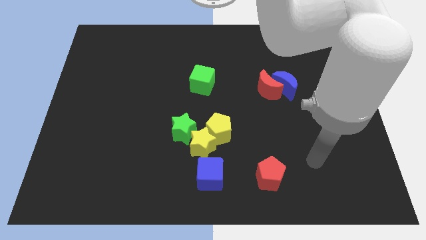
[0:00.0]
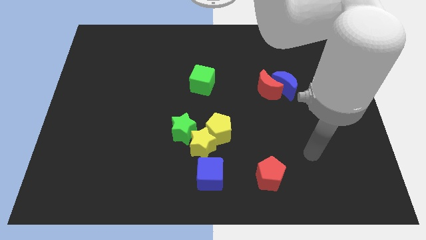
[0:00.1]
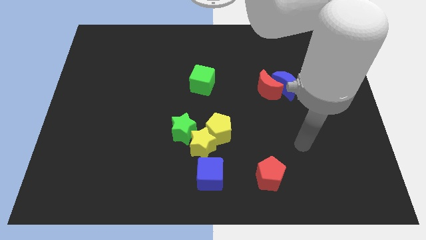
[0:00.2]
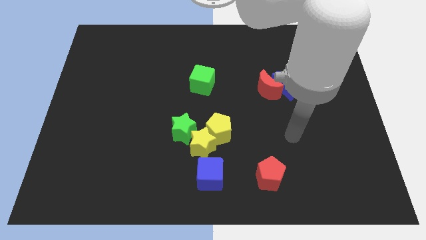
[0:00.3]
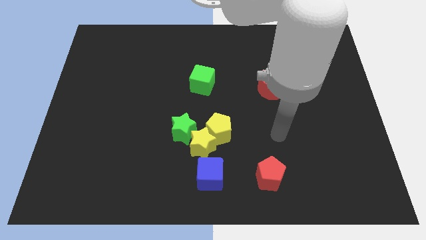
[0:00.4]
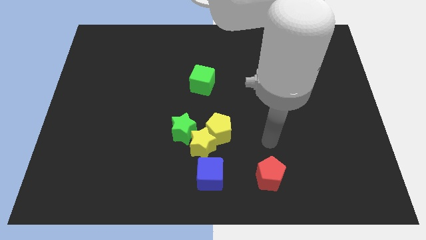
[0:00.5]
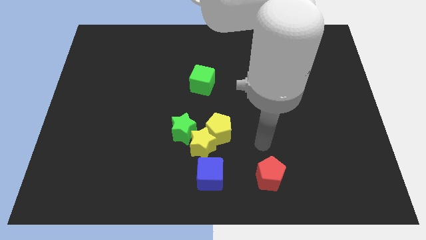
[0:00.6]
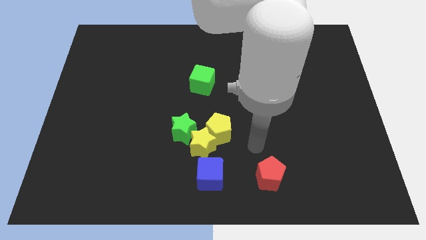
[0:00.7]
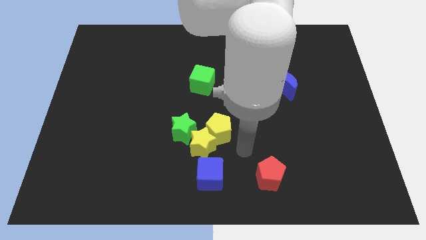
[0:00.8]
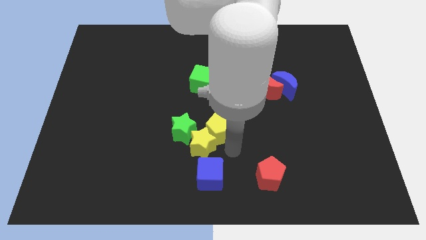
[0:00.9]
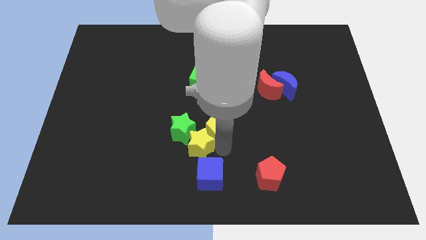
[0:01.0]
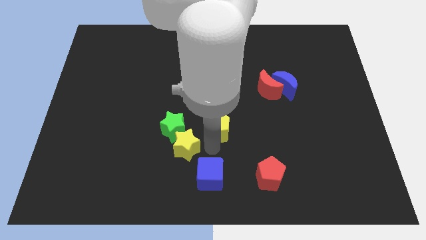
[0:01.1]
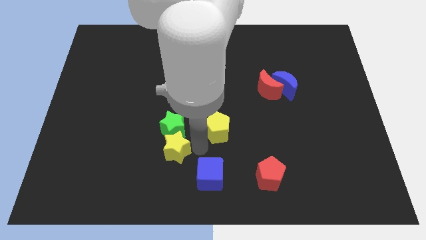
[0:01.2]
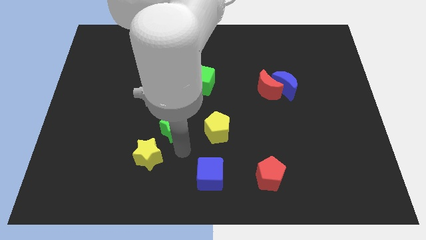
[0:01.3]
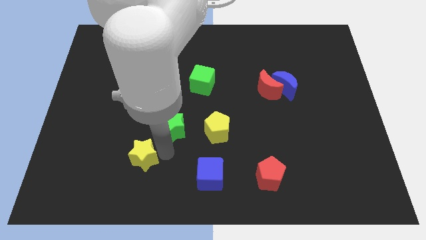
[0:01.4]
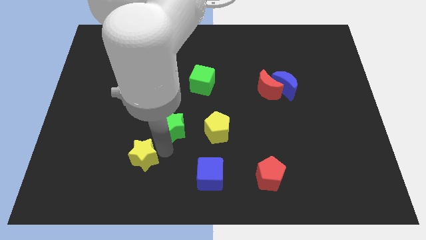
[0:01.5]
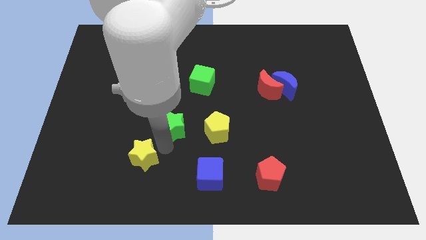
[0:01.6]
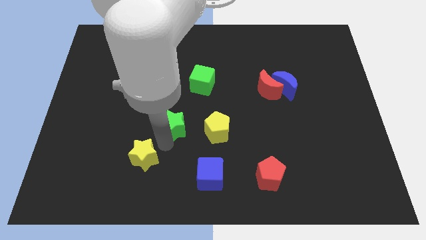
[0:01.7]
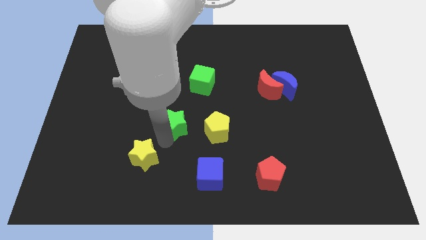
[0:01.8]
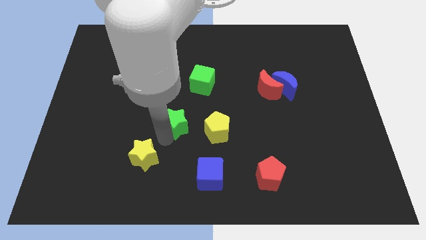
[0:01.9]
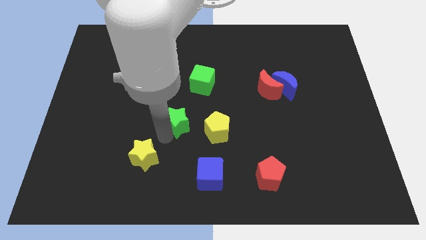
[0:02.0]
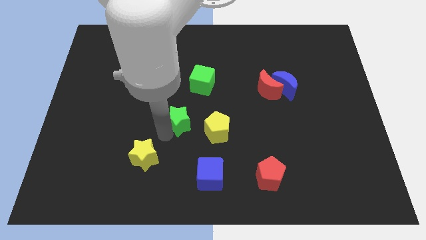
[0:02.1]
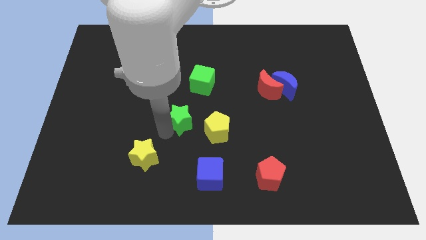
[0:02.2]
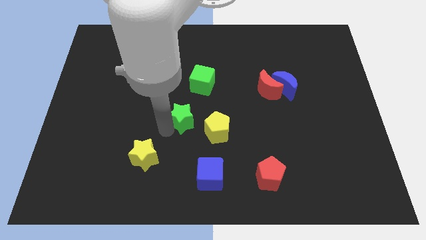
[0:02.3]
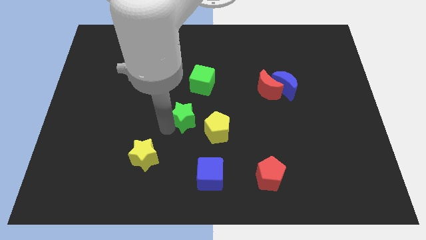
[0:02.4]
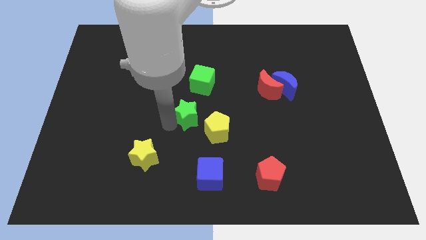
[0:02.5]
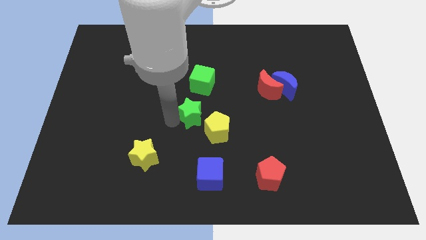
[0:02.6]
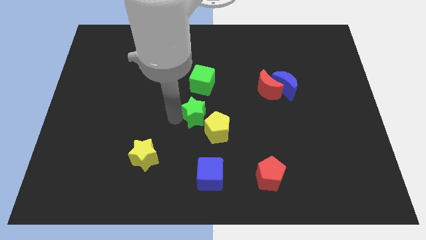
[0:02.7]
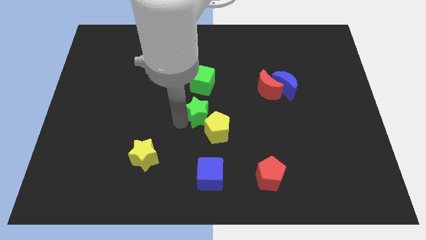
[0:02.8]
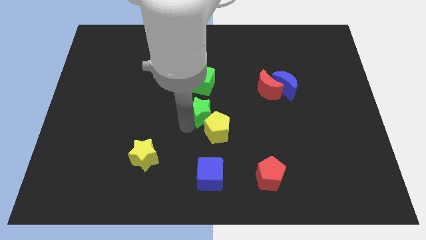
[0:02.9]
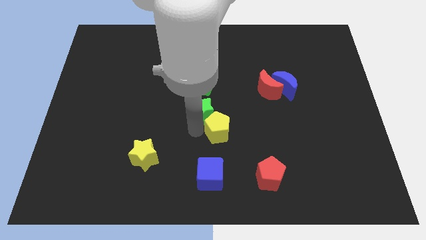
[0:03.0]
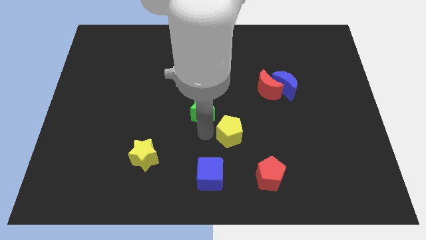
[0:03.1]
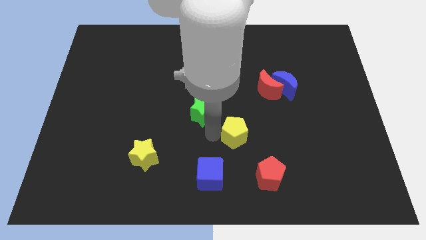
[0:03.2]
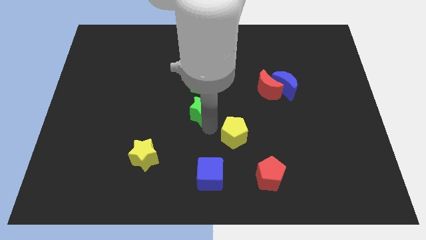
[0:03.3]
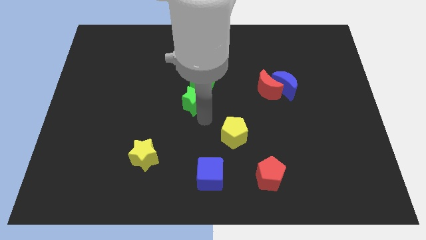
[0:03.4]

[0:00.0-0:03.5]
move the green star up somewhat

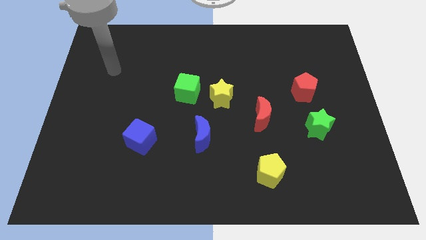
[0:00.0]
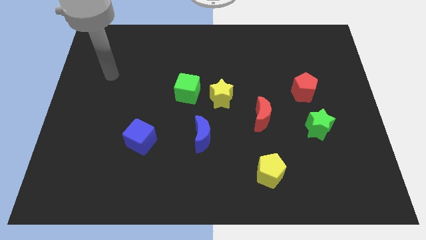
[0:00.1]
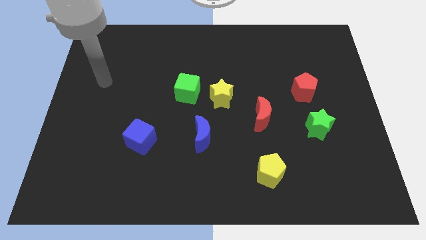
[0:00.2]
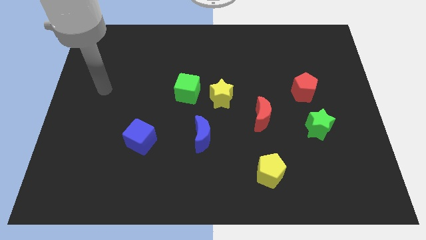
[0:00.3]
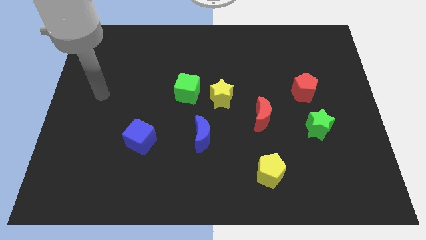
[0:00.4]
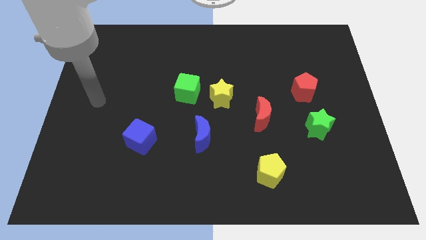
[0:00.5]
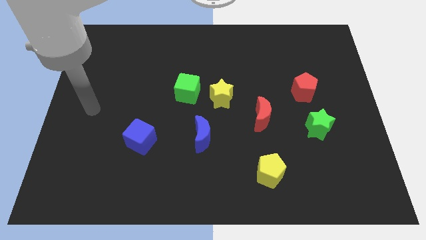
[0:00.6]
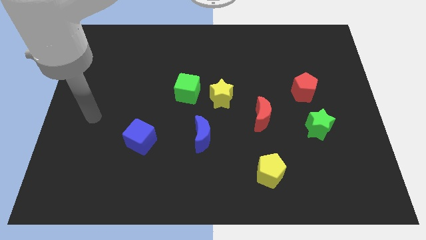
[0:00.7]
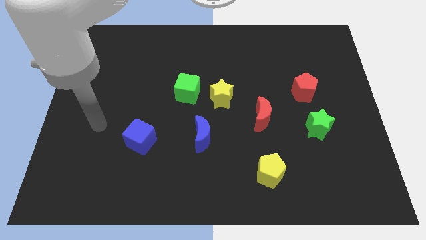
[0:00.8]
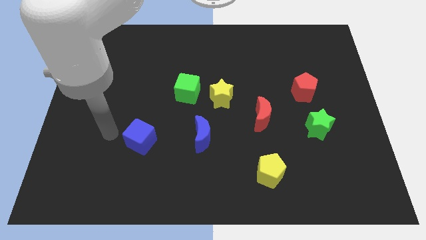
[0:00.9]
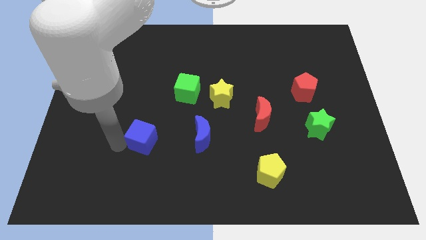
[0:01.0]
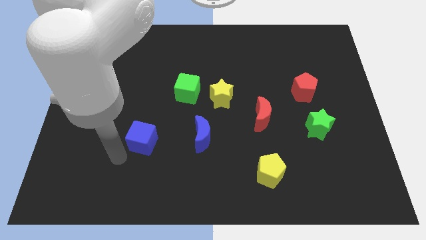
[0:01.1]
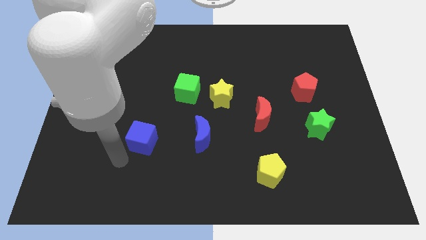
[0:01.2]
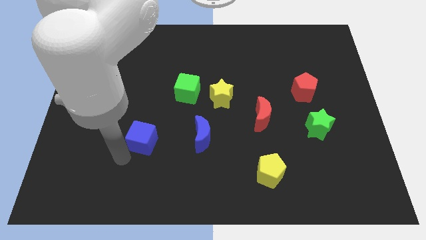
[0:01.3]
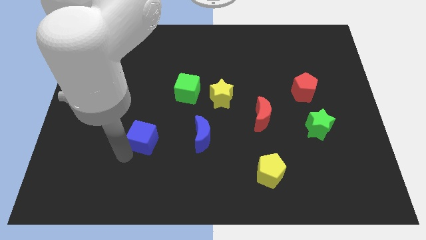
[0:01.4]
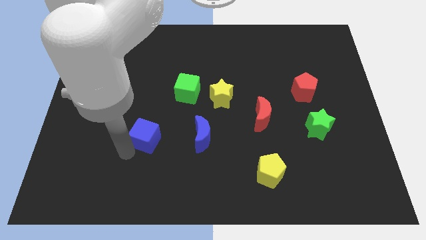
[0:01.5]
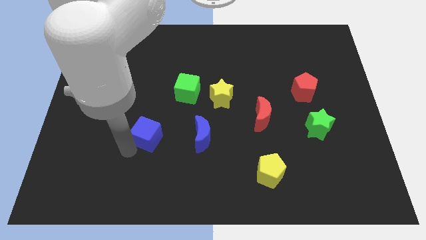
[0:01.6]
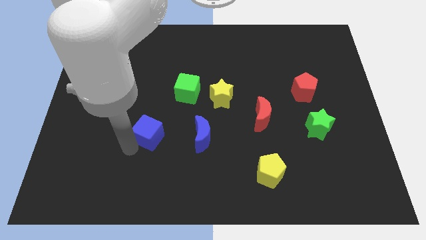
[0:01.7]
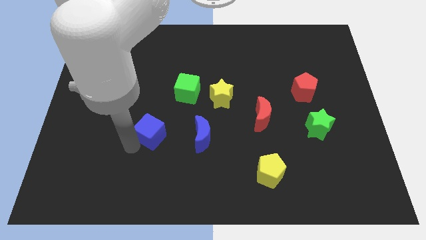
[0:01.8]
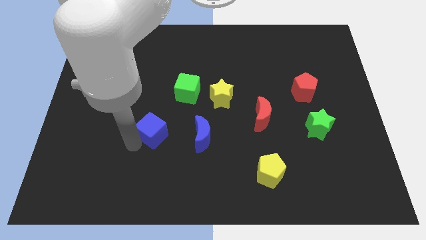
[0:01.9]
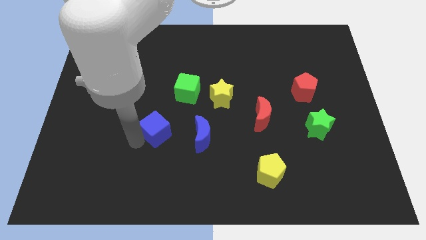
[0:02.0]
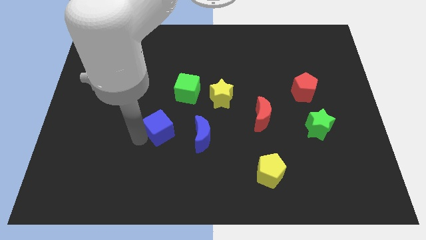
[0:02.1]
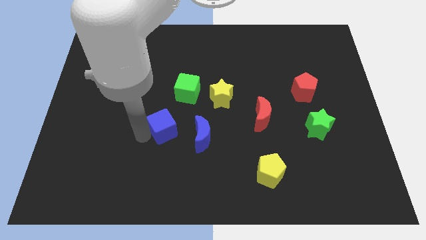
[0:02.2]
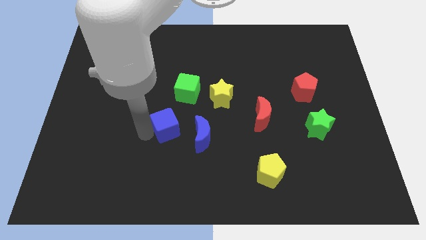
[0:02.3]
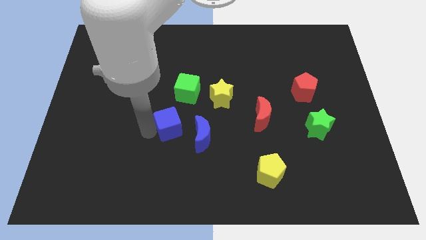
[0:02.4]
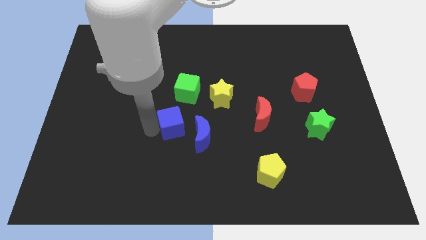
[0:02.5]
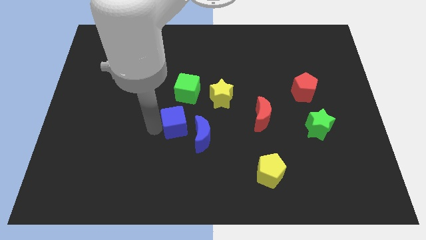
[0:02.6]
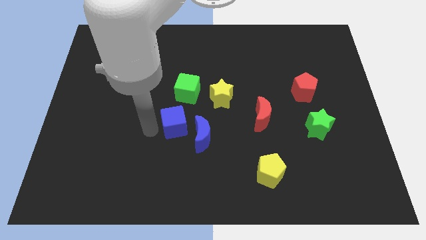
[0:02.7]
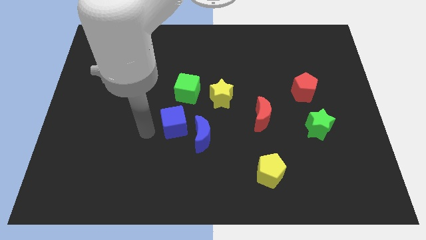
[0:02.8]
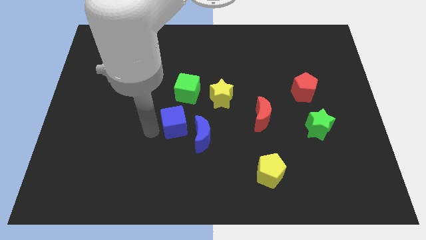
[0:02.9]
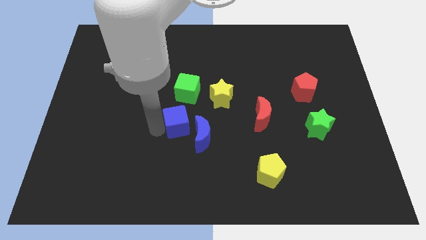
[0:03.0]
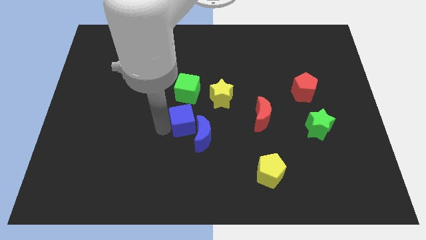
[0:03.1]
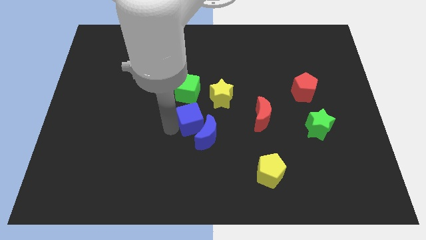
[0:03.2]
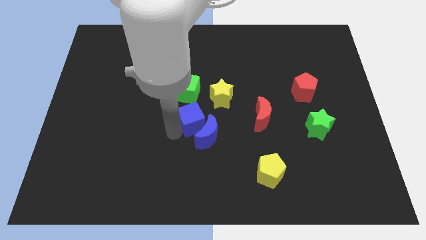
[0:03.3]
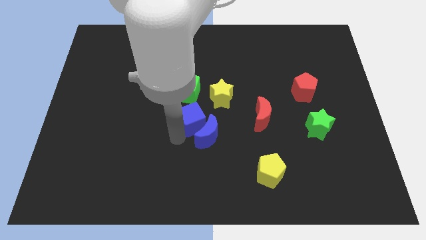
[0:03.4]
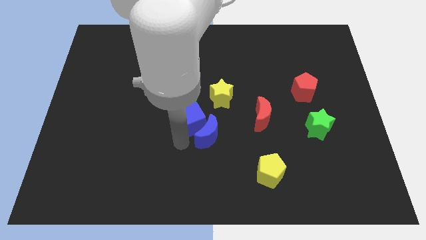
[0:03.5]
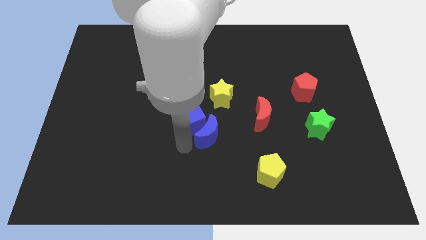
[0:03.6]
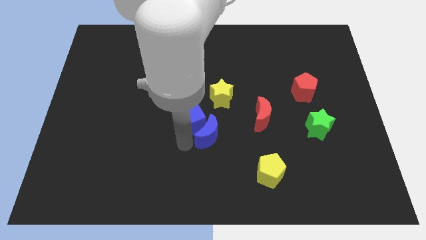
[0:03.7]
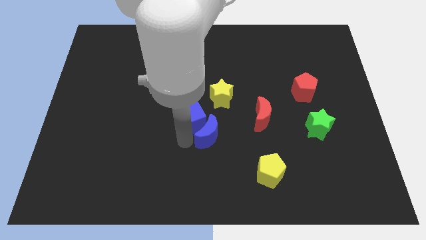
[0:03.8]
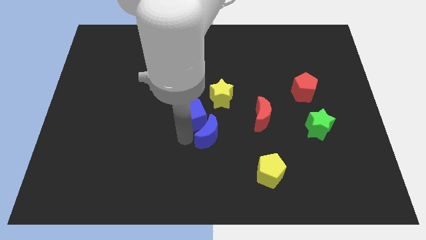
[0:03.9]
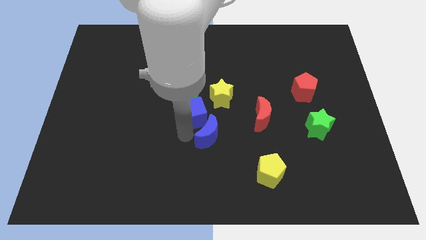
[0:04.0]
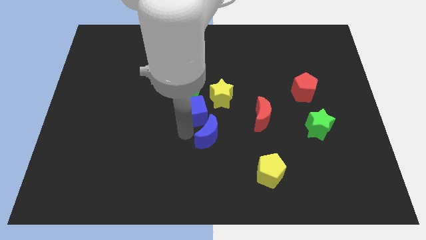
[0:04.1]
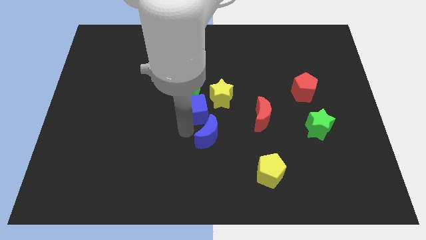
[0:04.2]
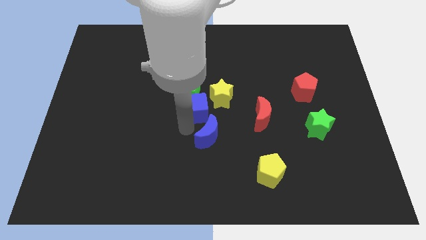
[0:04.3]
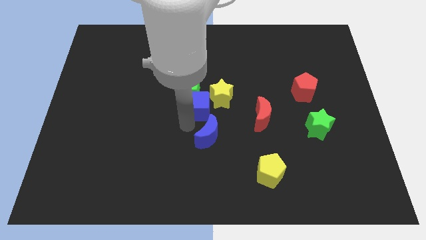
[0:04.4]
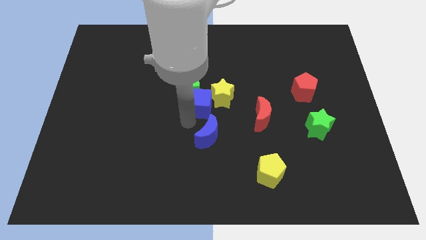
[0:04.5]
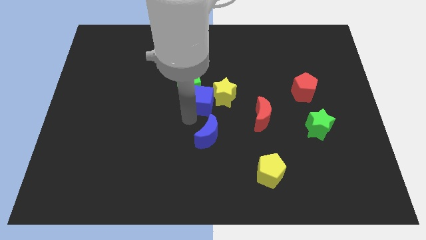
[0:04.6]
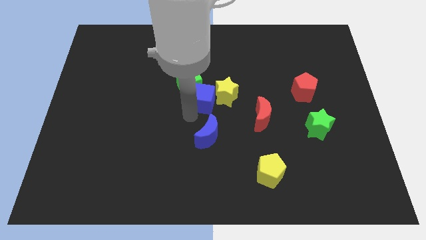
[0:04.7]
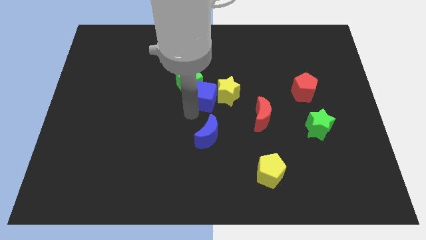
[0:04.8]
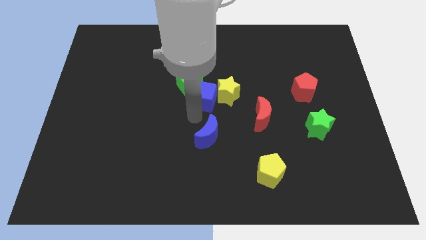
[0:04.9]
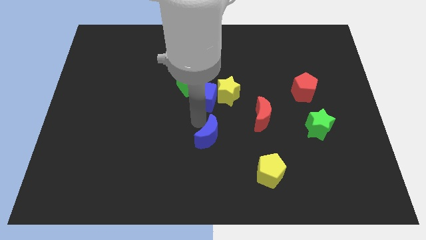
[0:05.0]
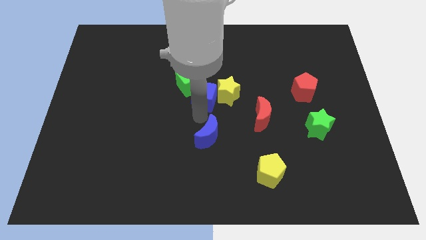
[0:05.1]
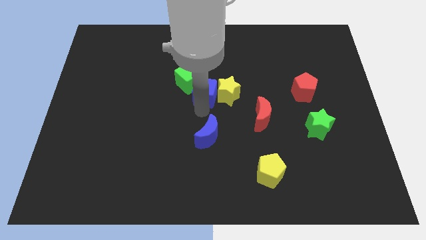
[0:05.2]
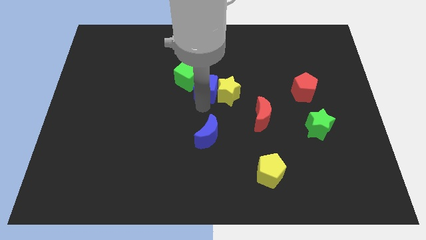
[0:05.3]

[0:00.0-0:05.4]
push the blue cube diagonally upwards and to the right
